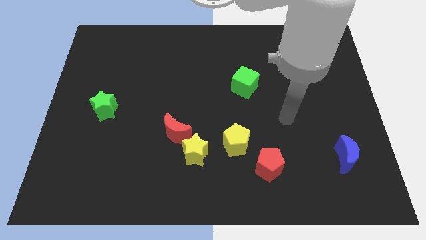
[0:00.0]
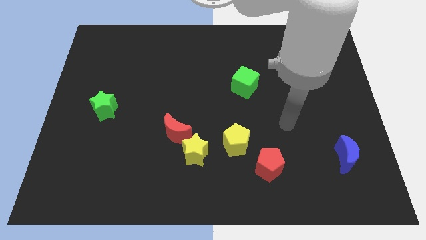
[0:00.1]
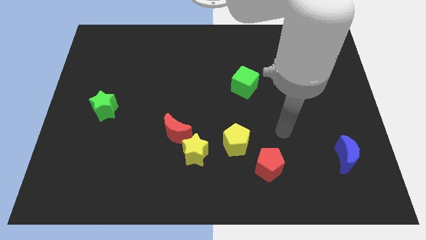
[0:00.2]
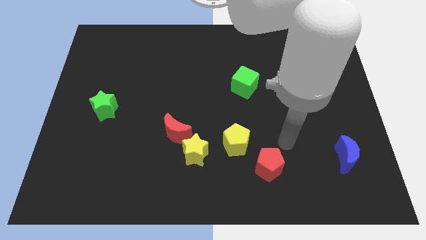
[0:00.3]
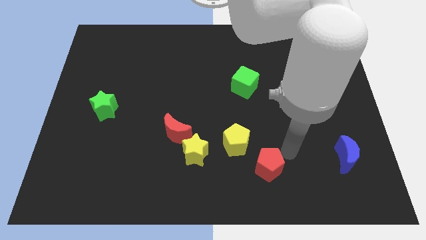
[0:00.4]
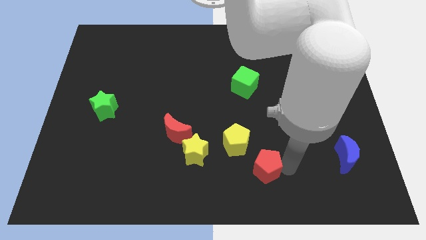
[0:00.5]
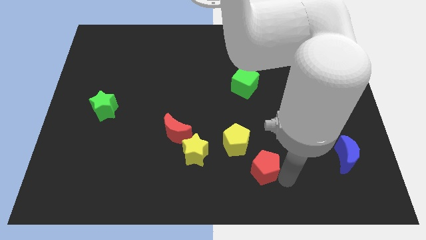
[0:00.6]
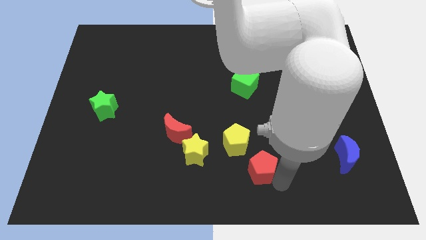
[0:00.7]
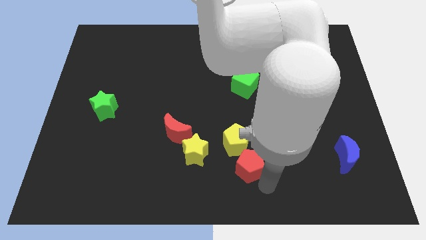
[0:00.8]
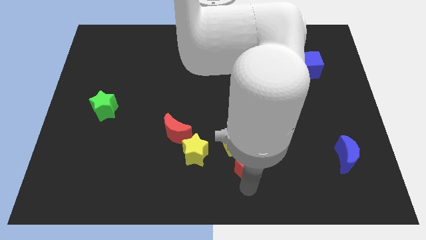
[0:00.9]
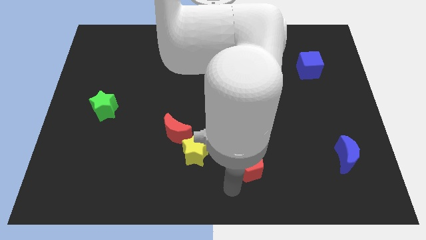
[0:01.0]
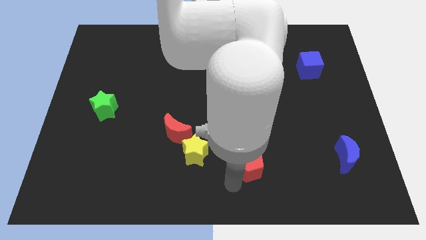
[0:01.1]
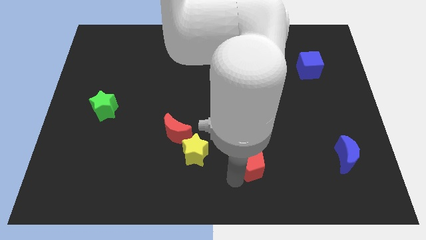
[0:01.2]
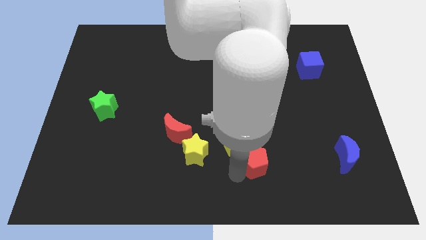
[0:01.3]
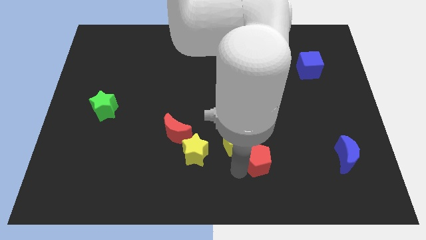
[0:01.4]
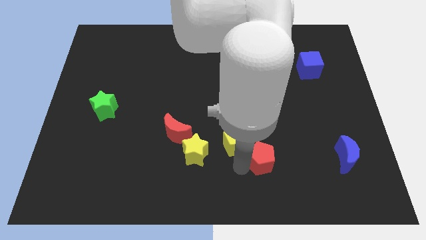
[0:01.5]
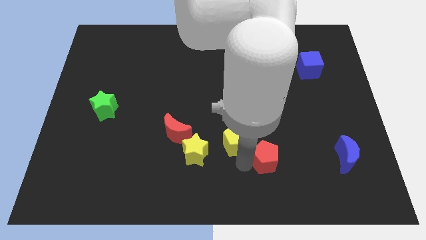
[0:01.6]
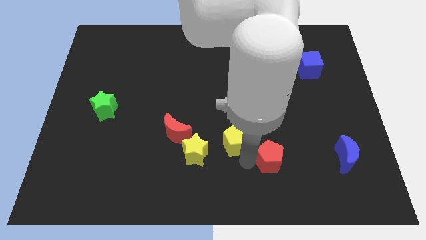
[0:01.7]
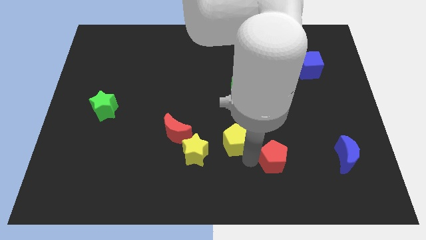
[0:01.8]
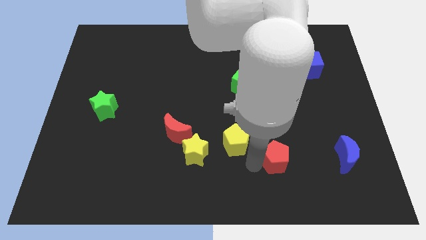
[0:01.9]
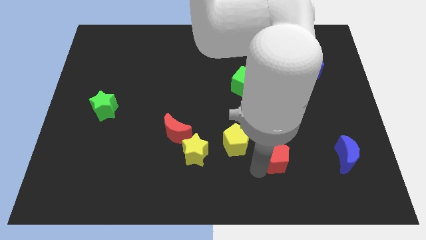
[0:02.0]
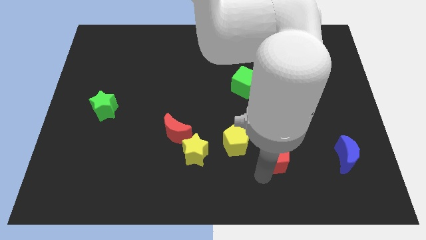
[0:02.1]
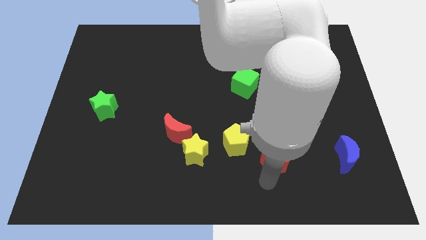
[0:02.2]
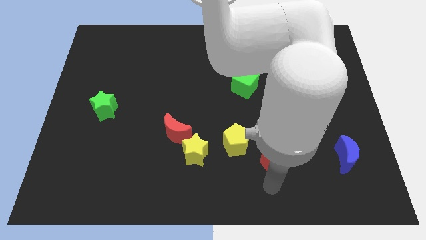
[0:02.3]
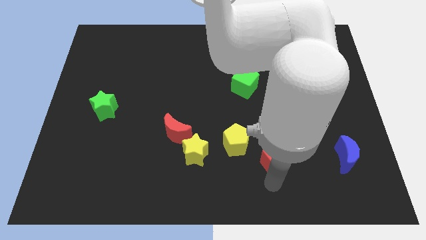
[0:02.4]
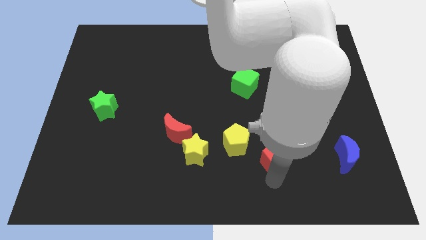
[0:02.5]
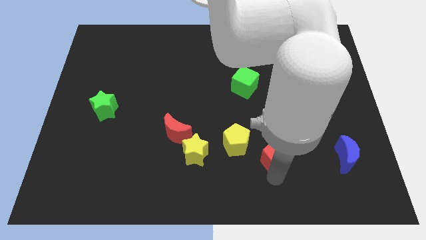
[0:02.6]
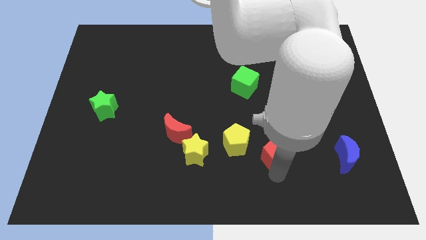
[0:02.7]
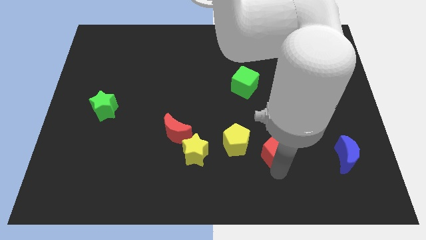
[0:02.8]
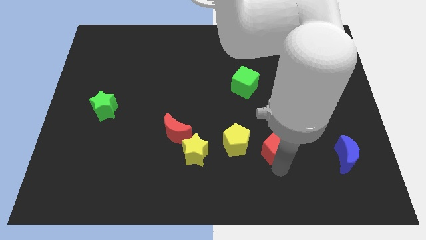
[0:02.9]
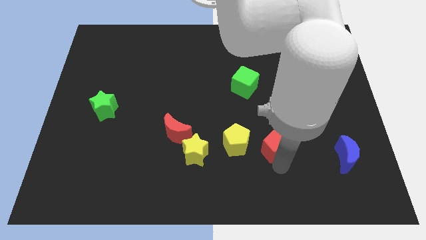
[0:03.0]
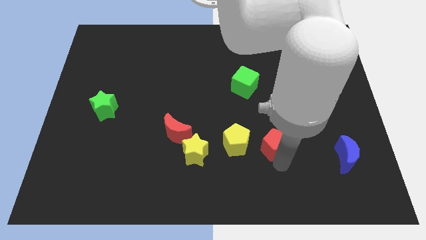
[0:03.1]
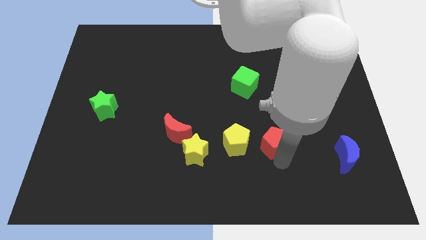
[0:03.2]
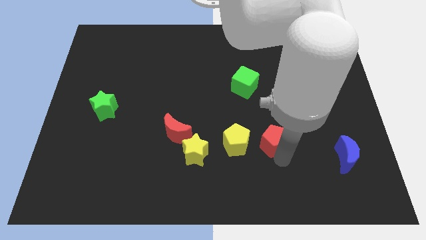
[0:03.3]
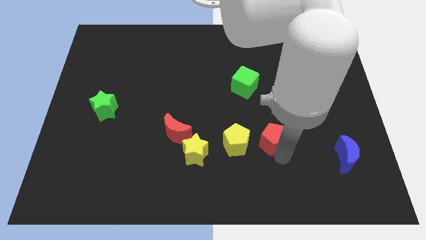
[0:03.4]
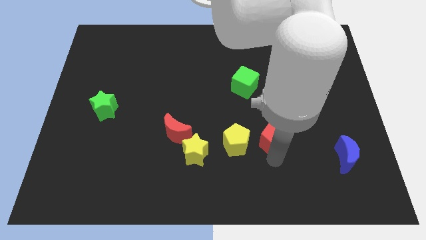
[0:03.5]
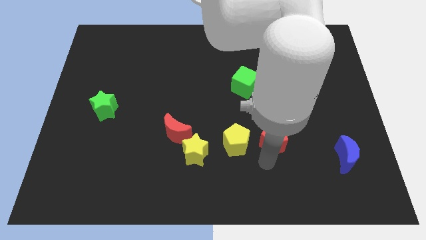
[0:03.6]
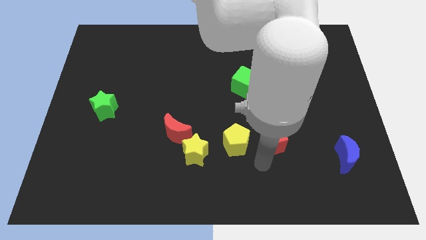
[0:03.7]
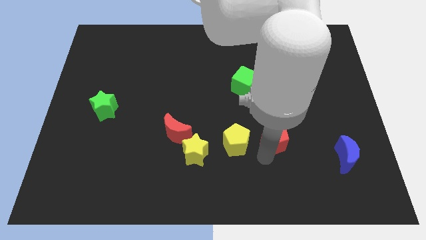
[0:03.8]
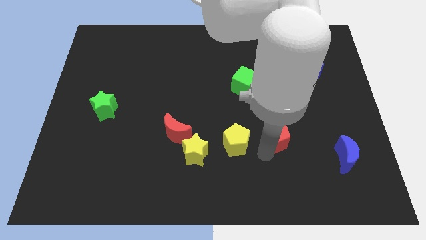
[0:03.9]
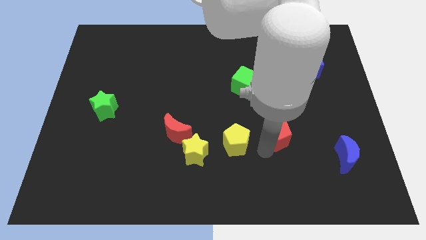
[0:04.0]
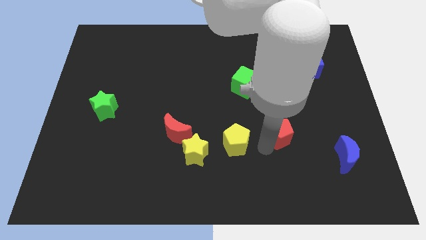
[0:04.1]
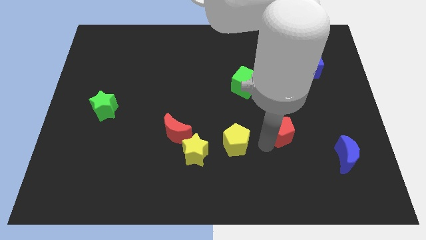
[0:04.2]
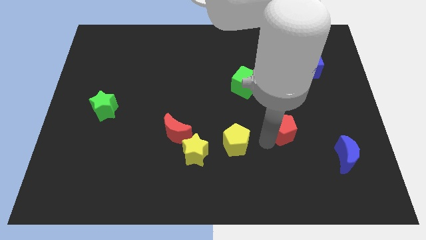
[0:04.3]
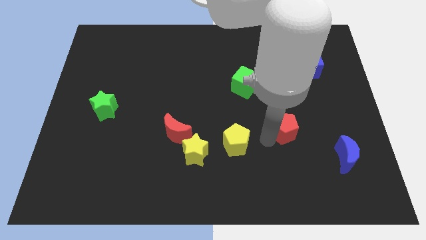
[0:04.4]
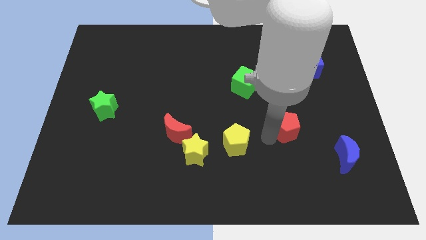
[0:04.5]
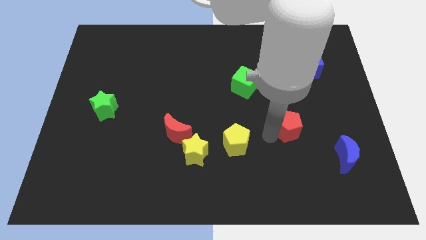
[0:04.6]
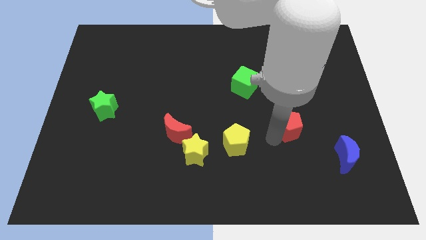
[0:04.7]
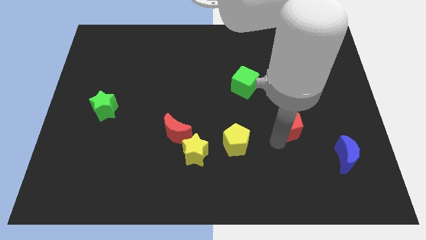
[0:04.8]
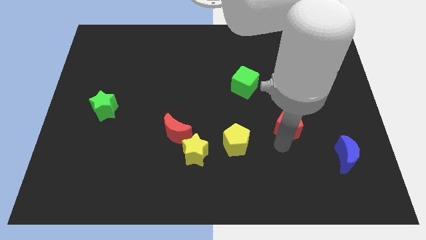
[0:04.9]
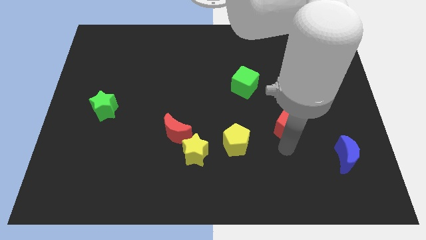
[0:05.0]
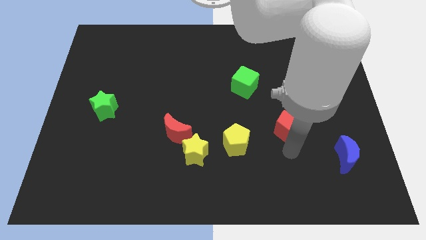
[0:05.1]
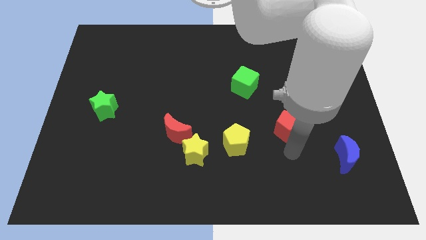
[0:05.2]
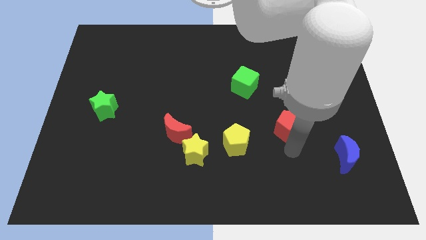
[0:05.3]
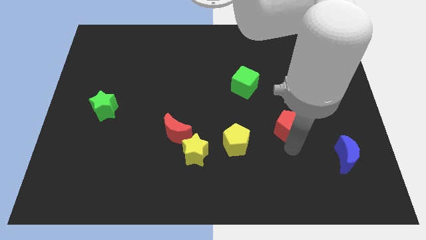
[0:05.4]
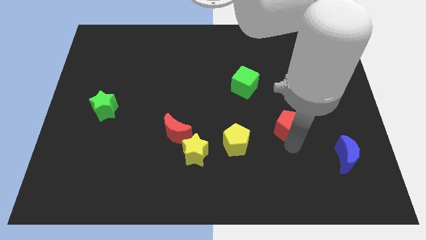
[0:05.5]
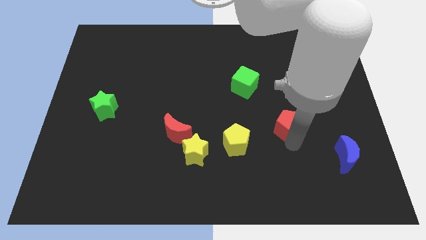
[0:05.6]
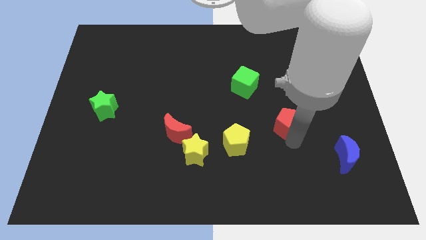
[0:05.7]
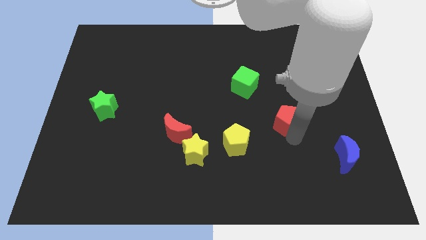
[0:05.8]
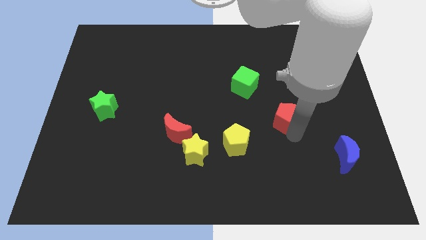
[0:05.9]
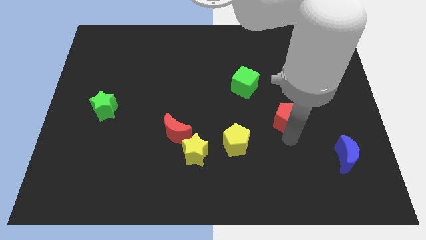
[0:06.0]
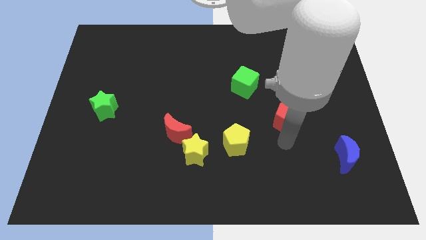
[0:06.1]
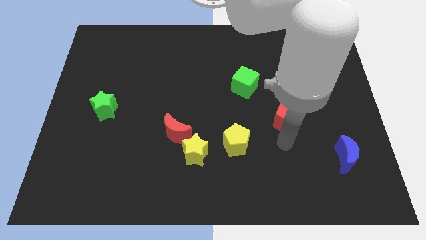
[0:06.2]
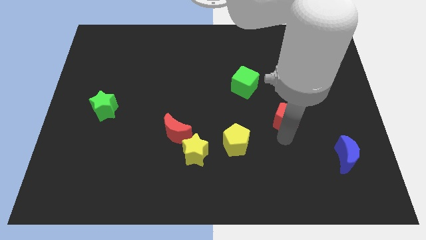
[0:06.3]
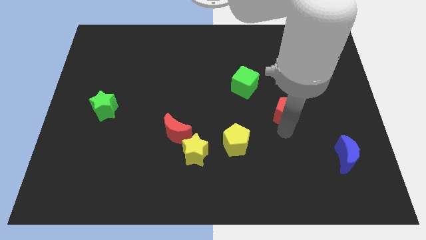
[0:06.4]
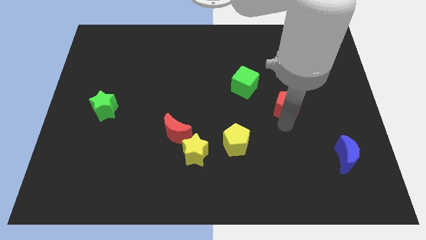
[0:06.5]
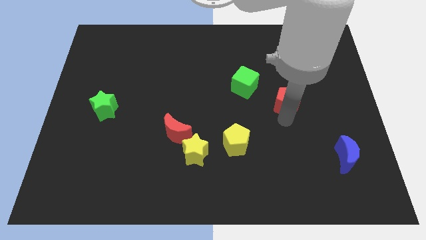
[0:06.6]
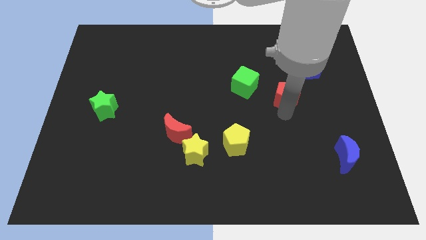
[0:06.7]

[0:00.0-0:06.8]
push the red pentagon to the bottom left side of the blue cube
